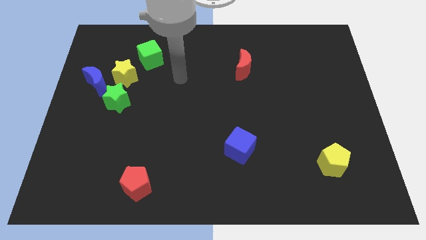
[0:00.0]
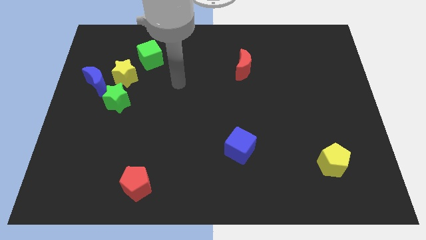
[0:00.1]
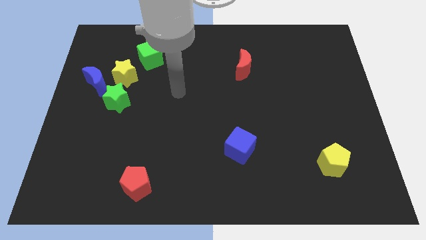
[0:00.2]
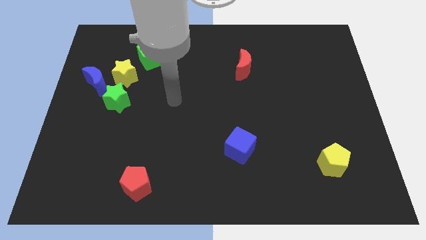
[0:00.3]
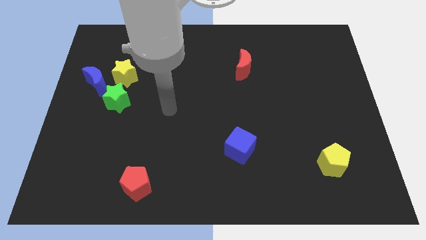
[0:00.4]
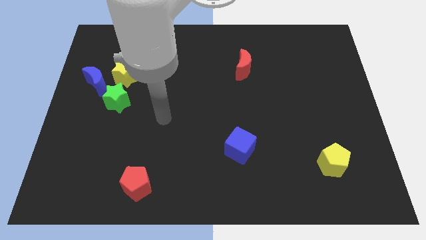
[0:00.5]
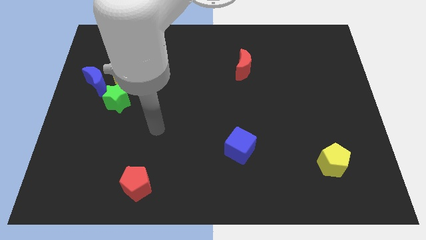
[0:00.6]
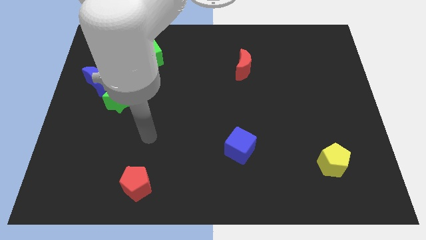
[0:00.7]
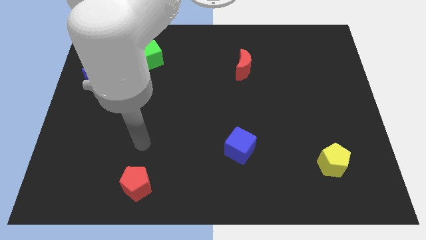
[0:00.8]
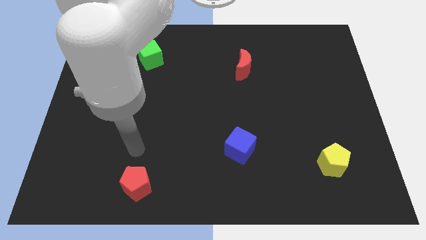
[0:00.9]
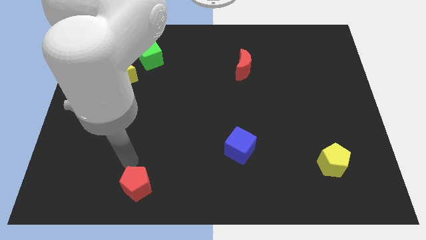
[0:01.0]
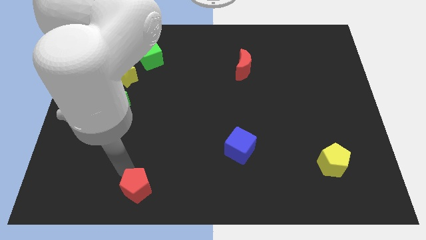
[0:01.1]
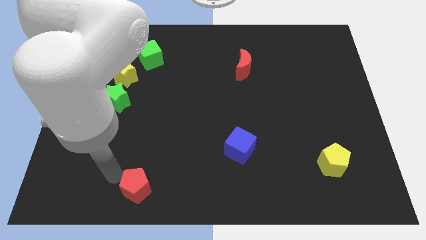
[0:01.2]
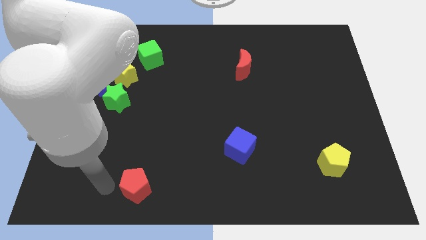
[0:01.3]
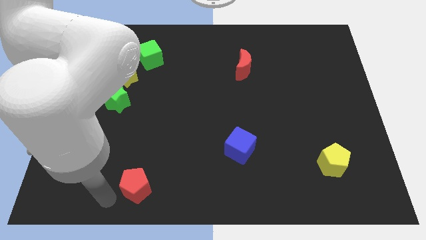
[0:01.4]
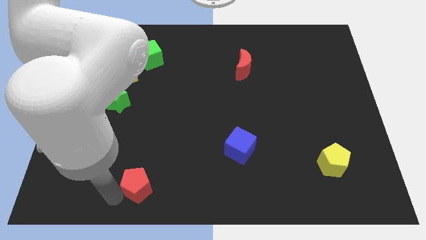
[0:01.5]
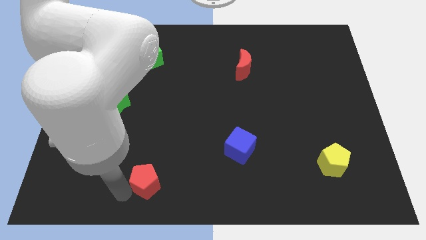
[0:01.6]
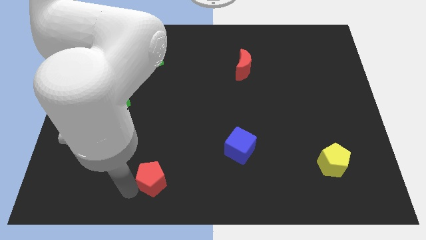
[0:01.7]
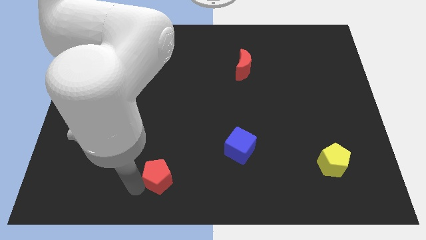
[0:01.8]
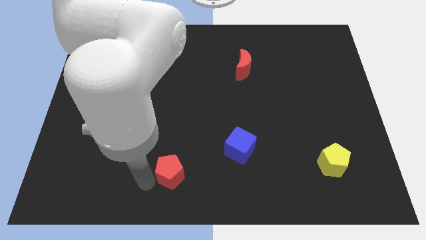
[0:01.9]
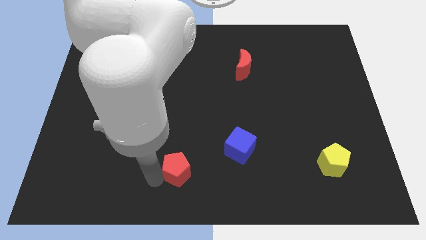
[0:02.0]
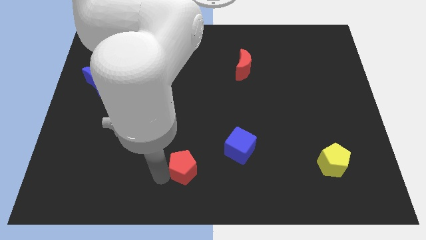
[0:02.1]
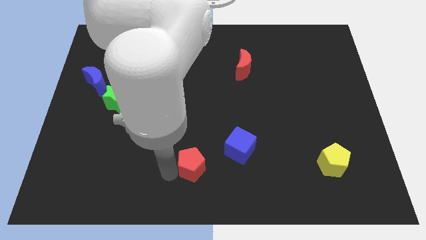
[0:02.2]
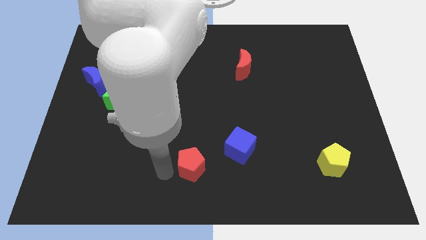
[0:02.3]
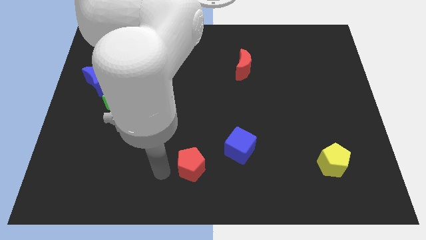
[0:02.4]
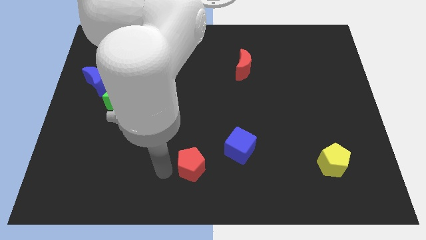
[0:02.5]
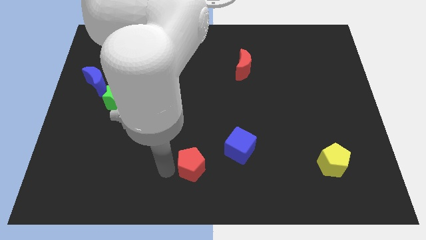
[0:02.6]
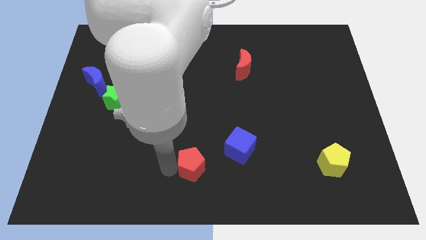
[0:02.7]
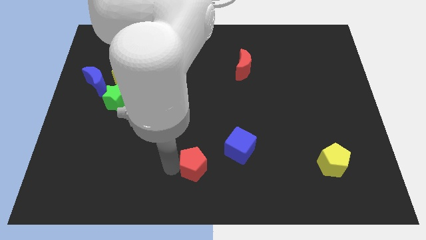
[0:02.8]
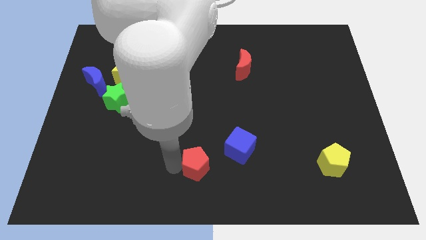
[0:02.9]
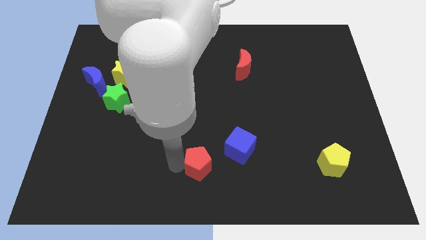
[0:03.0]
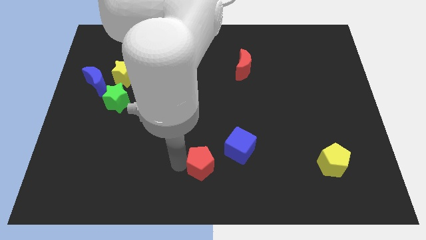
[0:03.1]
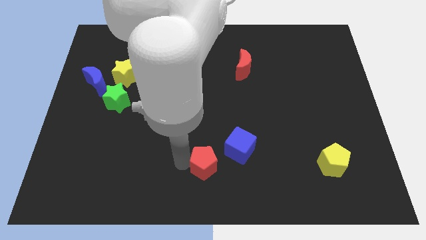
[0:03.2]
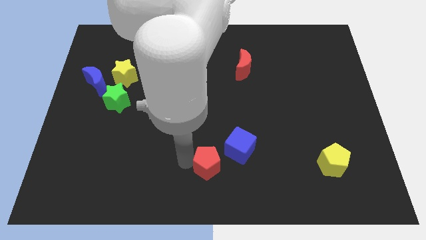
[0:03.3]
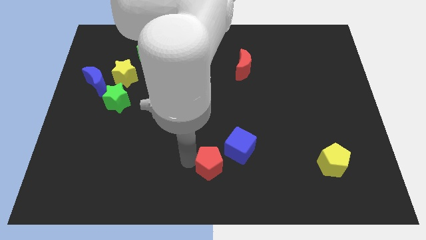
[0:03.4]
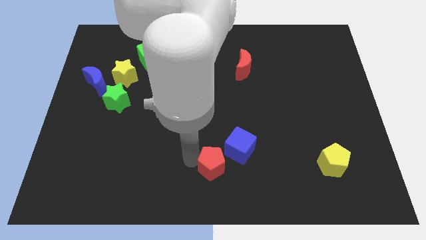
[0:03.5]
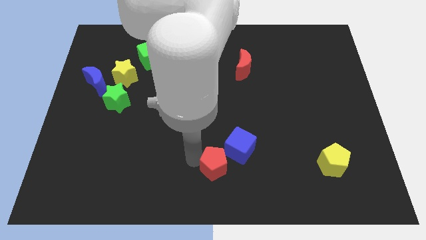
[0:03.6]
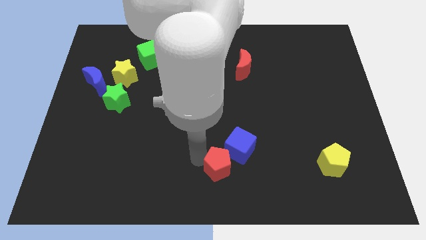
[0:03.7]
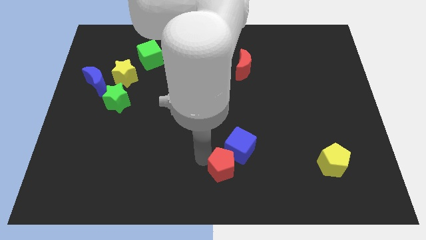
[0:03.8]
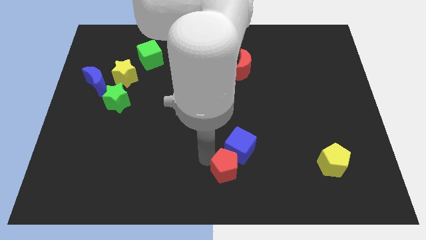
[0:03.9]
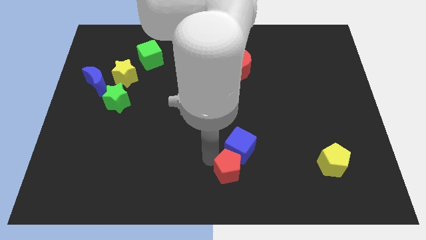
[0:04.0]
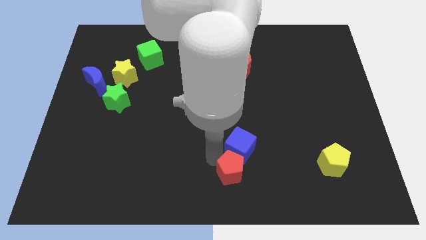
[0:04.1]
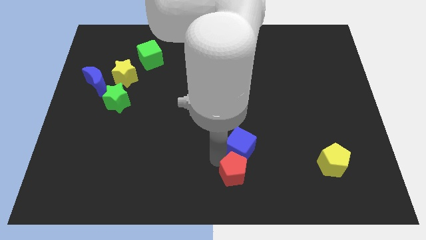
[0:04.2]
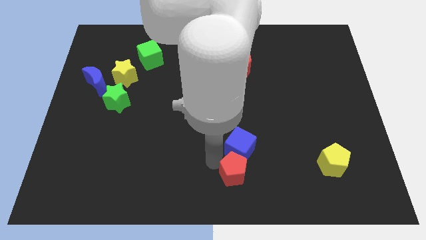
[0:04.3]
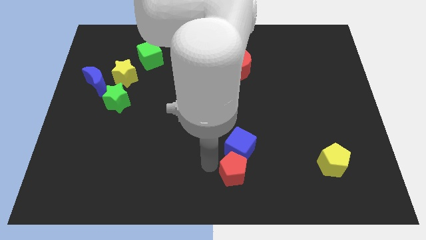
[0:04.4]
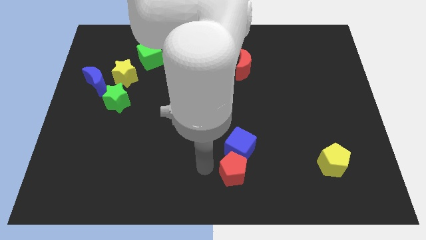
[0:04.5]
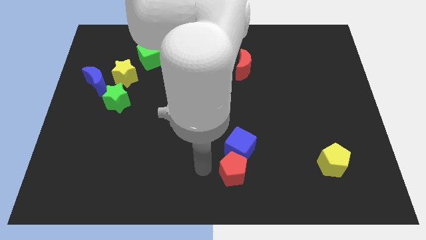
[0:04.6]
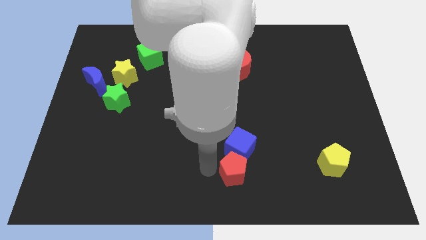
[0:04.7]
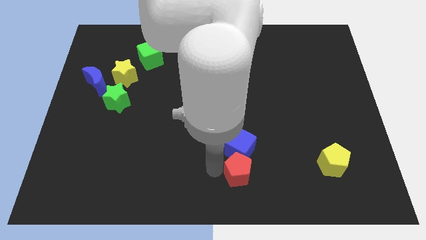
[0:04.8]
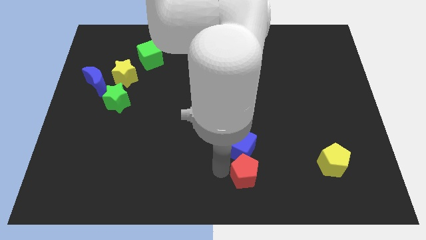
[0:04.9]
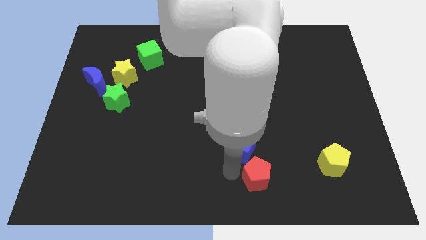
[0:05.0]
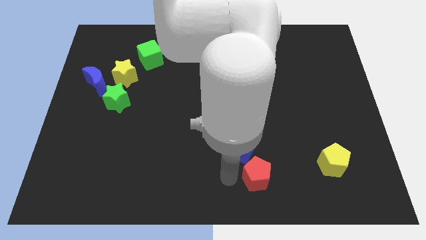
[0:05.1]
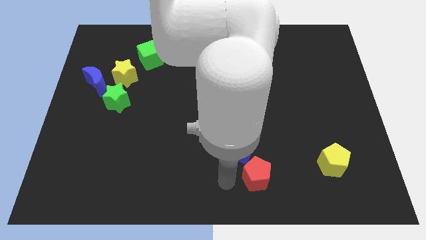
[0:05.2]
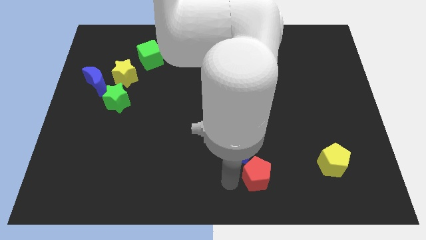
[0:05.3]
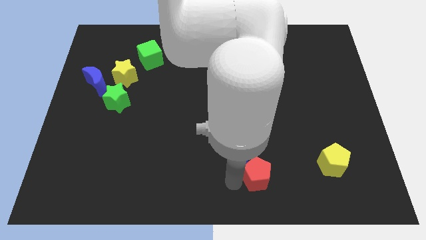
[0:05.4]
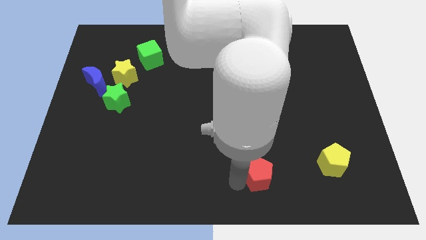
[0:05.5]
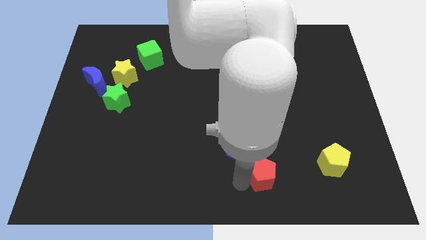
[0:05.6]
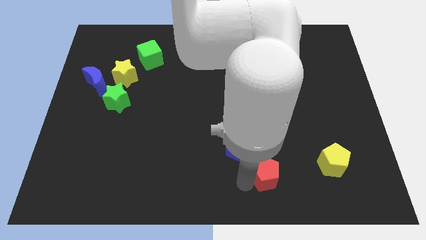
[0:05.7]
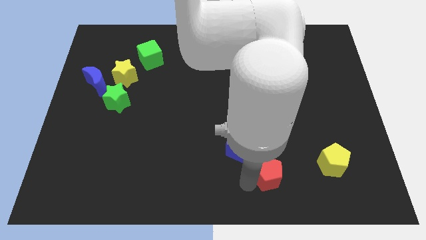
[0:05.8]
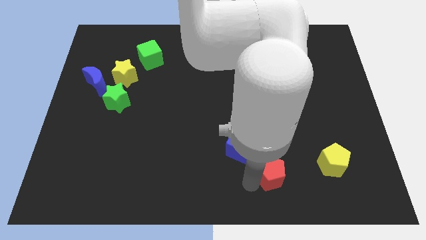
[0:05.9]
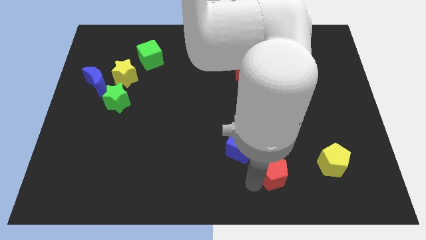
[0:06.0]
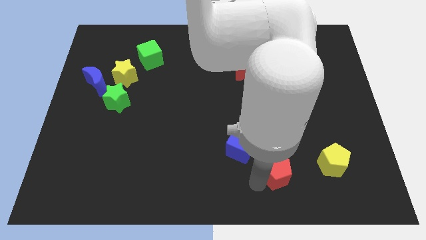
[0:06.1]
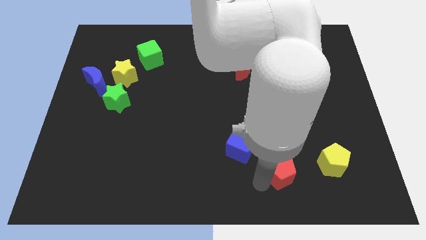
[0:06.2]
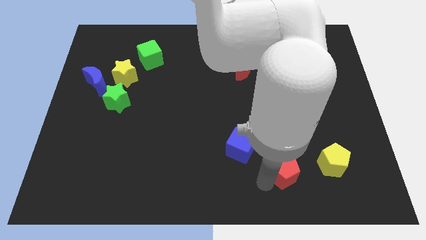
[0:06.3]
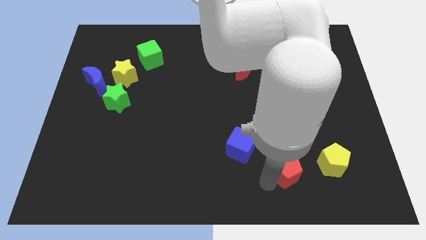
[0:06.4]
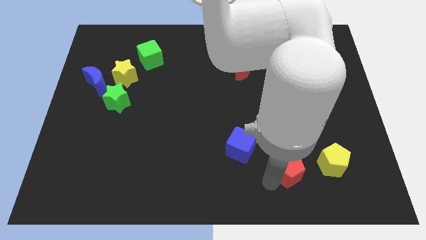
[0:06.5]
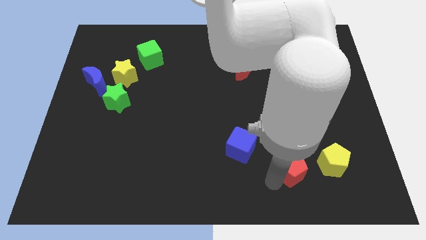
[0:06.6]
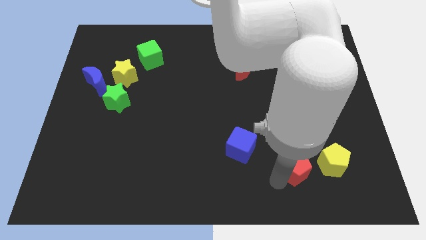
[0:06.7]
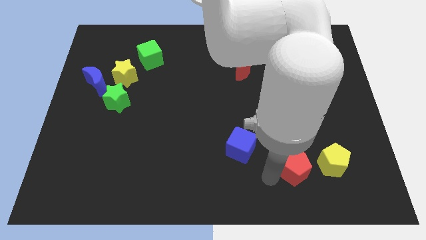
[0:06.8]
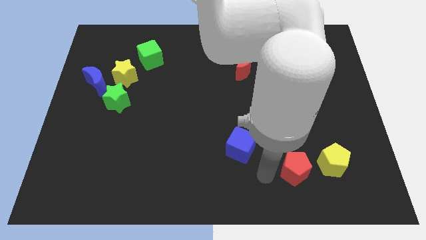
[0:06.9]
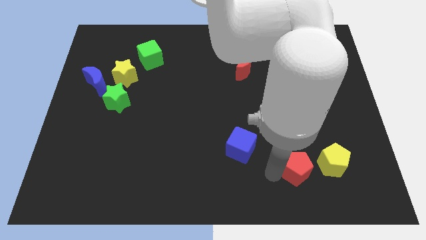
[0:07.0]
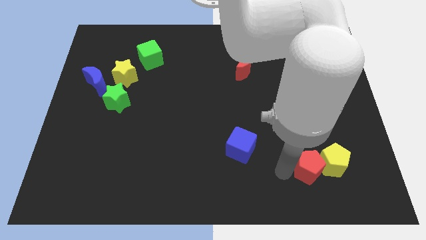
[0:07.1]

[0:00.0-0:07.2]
move the red pentagon close to the yellow pentagon

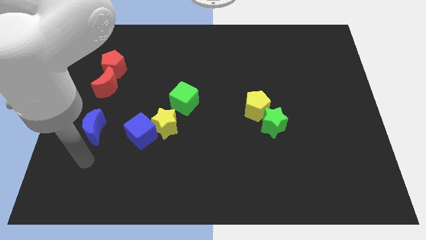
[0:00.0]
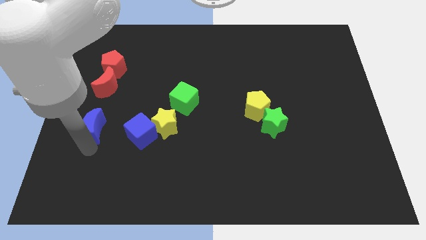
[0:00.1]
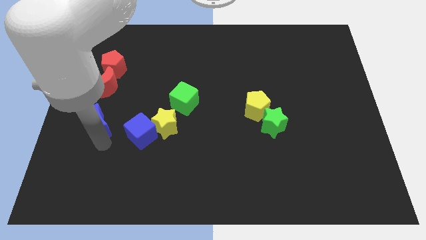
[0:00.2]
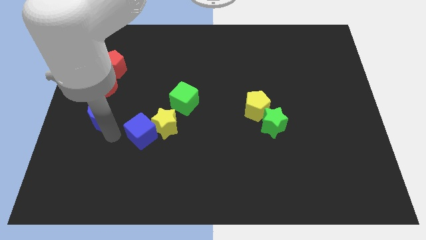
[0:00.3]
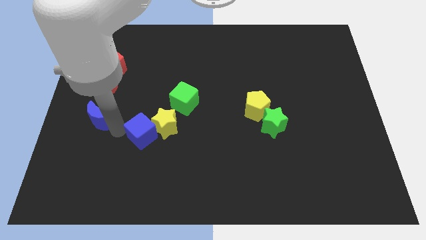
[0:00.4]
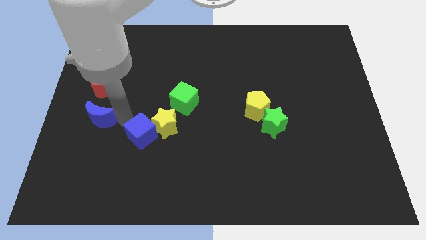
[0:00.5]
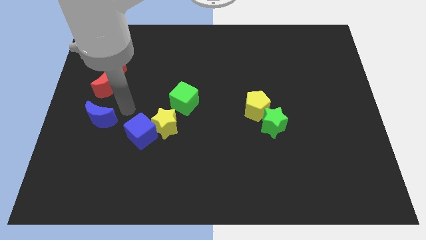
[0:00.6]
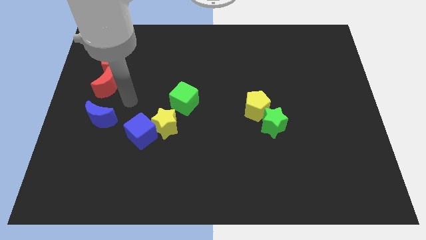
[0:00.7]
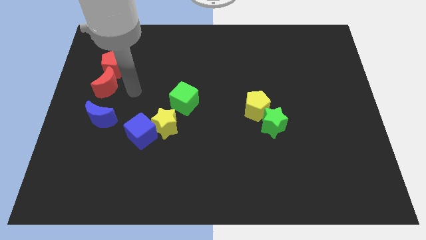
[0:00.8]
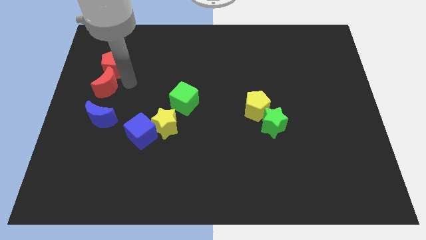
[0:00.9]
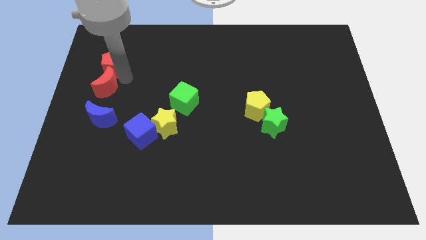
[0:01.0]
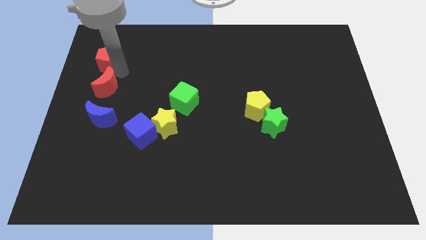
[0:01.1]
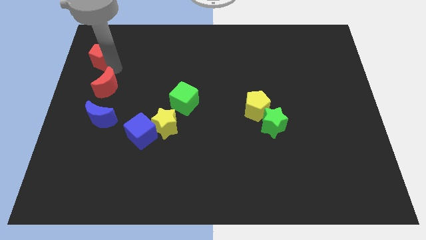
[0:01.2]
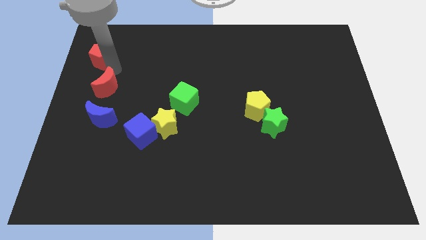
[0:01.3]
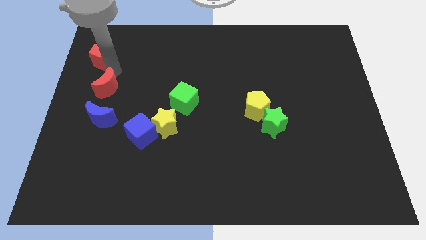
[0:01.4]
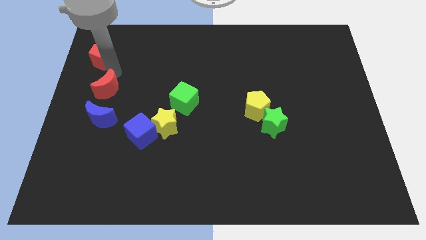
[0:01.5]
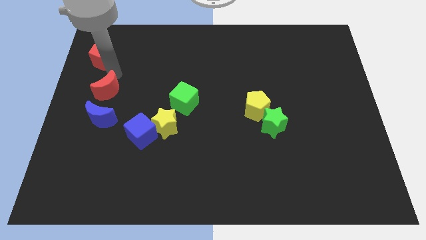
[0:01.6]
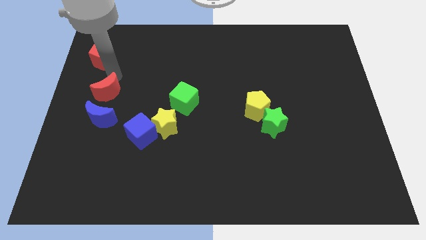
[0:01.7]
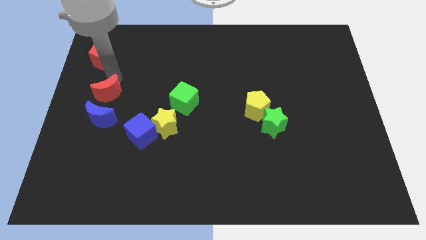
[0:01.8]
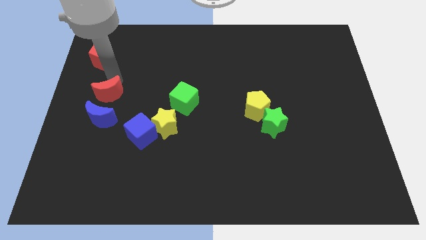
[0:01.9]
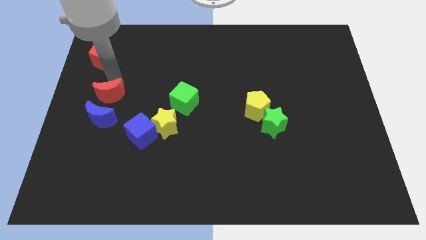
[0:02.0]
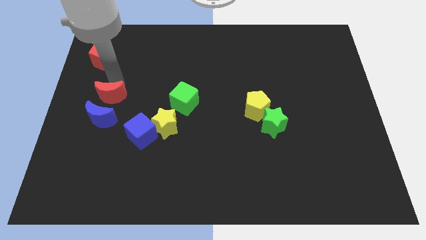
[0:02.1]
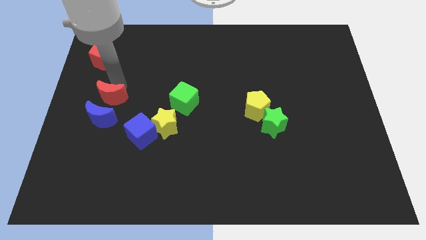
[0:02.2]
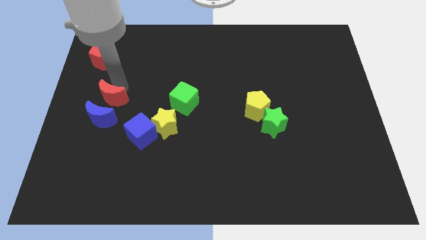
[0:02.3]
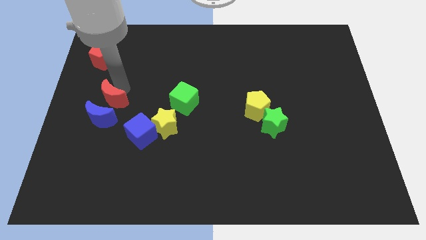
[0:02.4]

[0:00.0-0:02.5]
slide the red moon towards the blue moon
